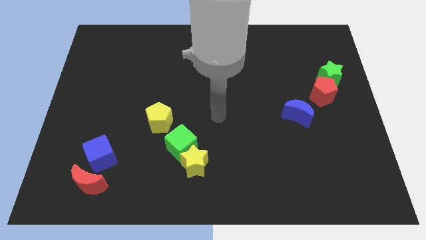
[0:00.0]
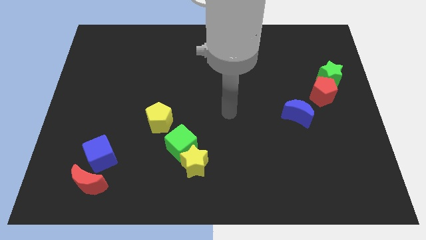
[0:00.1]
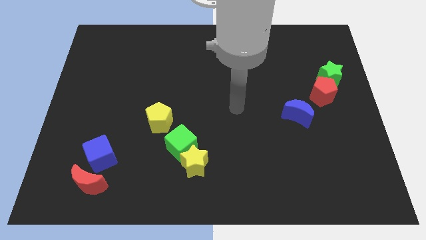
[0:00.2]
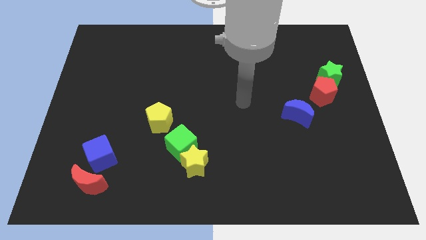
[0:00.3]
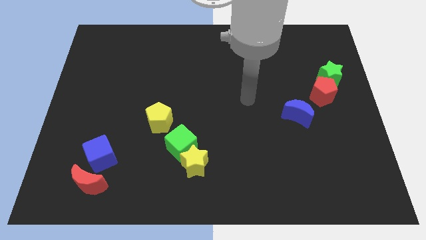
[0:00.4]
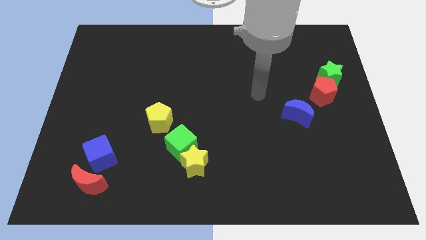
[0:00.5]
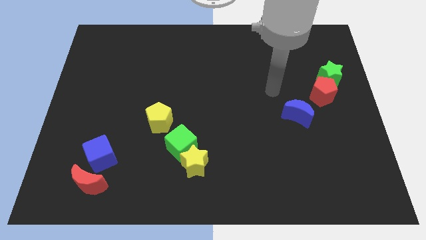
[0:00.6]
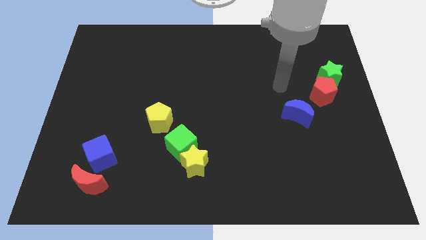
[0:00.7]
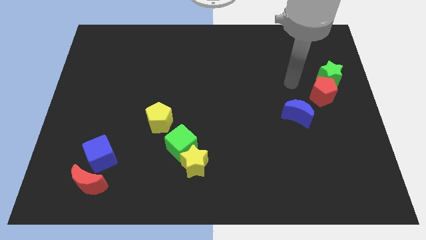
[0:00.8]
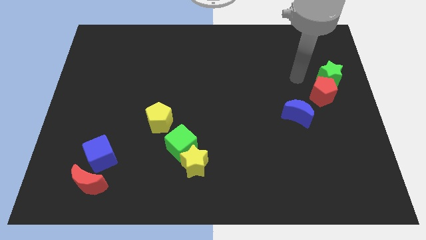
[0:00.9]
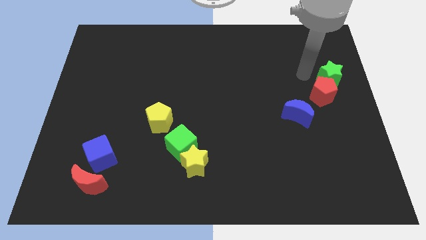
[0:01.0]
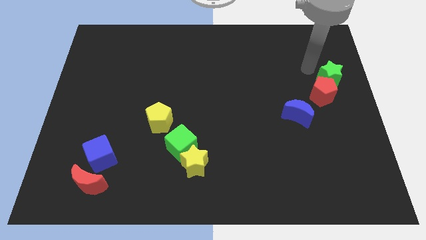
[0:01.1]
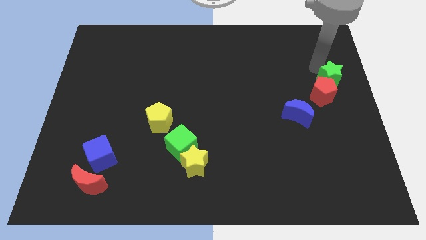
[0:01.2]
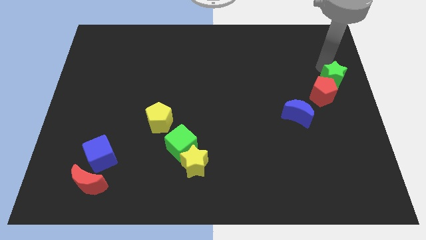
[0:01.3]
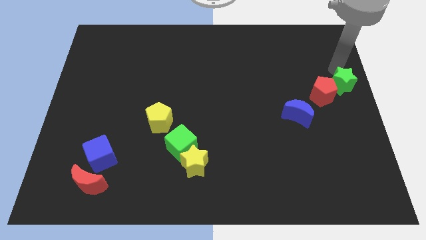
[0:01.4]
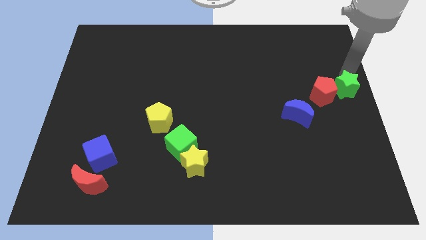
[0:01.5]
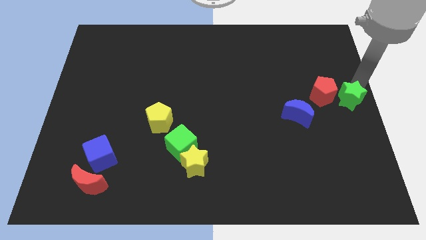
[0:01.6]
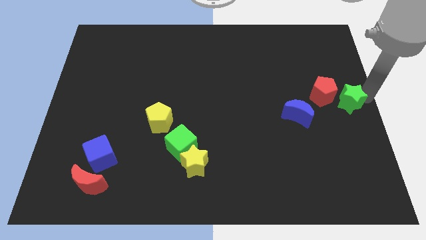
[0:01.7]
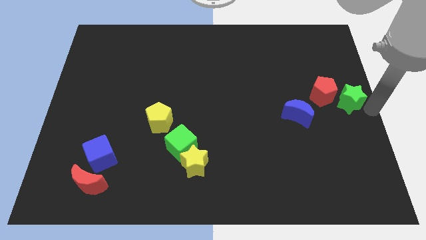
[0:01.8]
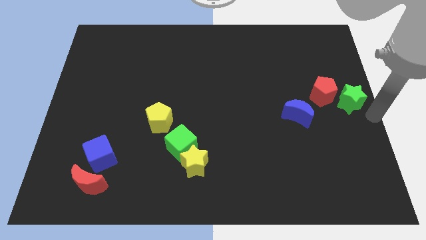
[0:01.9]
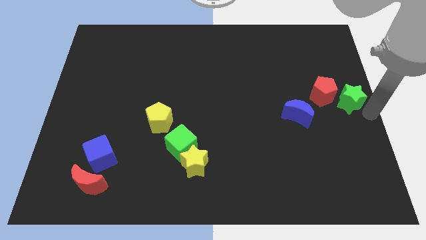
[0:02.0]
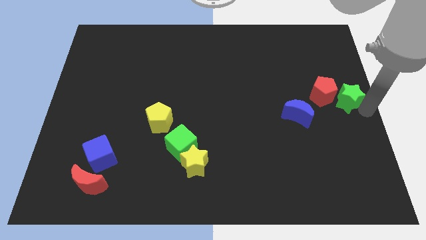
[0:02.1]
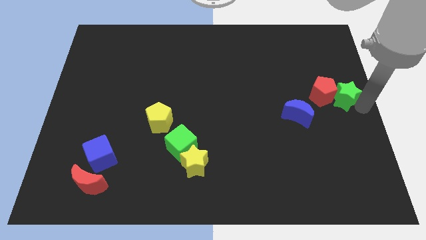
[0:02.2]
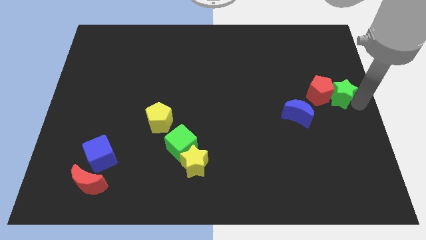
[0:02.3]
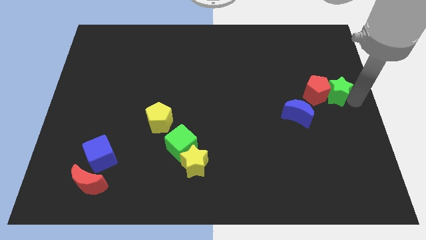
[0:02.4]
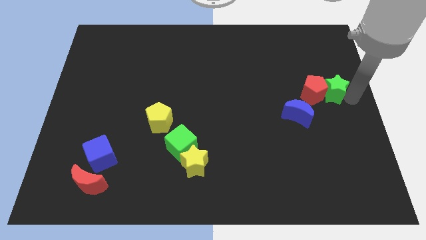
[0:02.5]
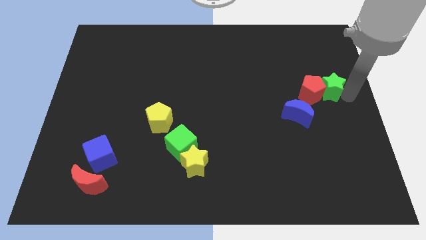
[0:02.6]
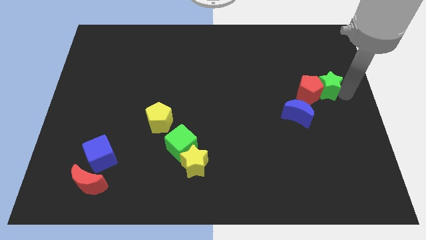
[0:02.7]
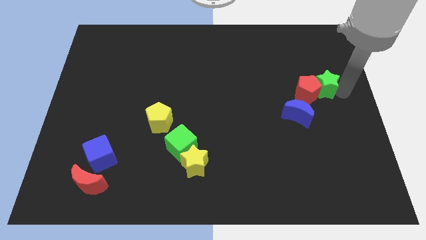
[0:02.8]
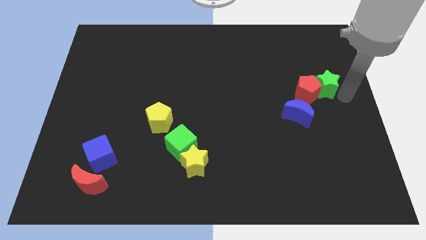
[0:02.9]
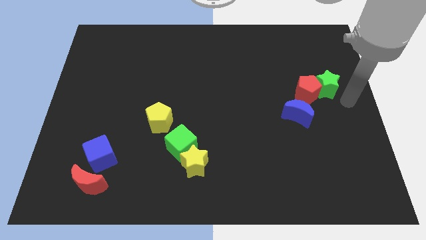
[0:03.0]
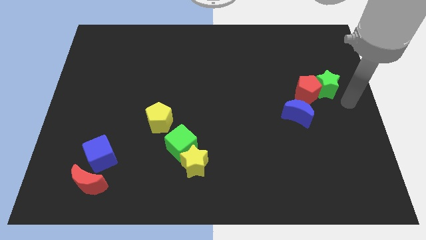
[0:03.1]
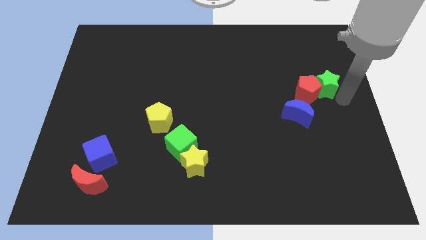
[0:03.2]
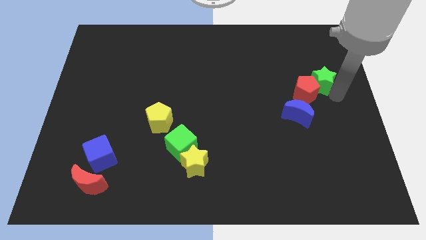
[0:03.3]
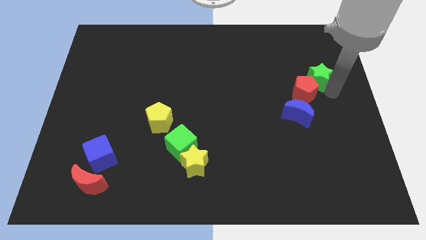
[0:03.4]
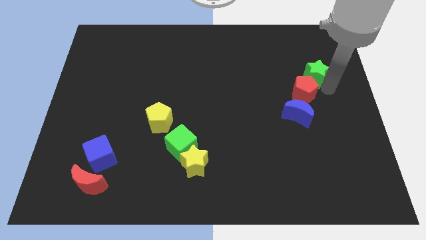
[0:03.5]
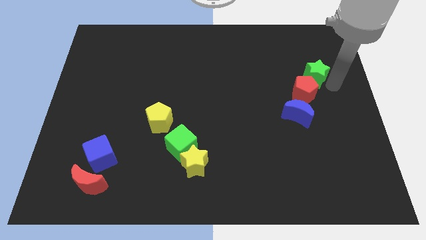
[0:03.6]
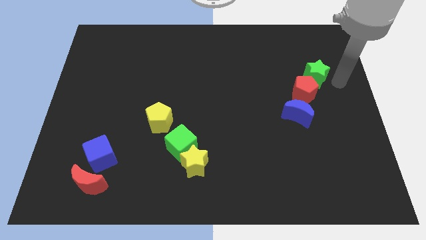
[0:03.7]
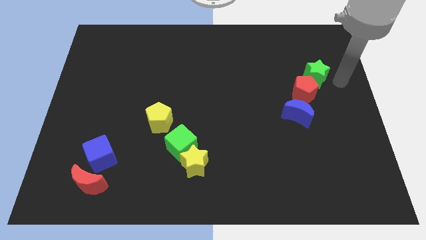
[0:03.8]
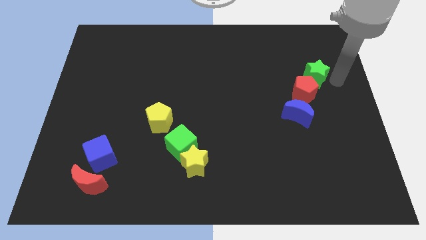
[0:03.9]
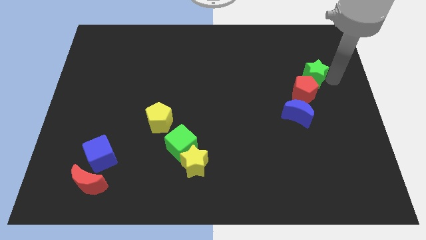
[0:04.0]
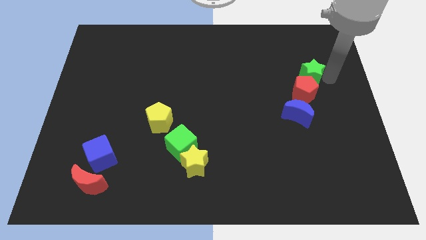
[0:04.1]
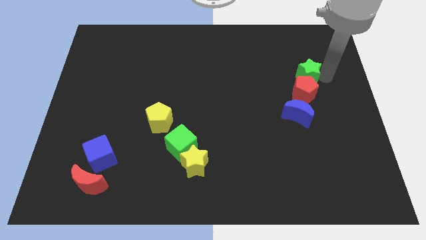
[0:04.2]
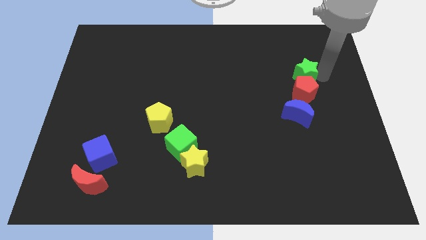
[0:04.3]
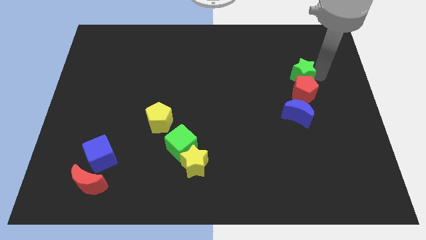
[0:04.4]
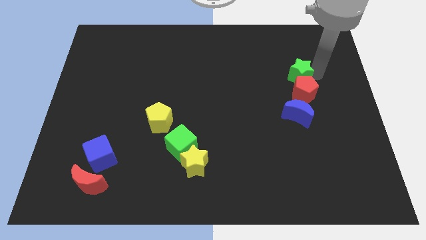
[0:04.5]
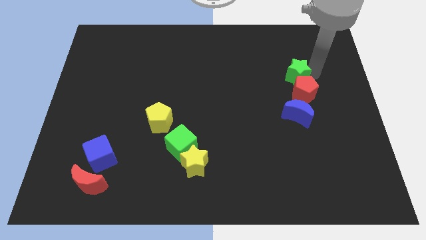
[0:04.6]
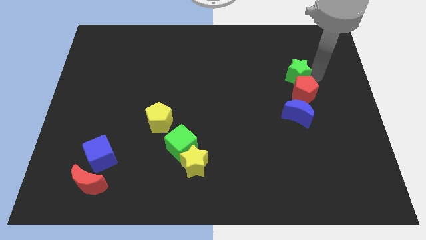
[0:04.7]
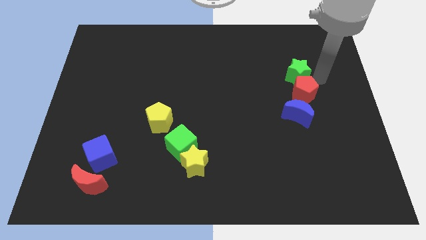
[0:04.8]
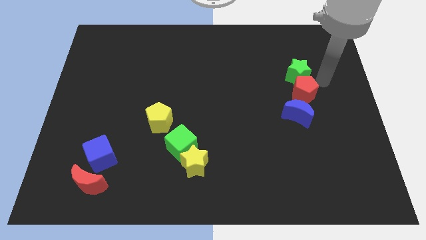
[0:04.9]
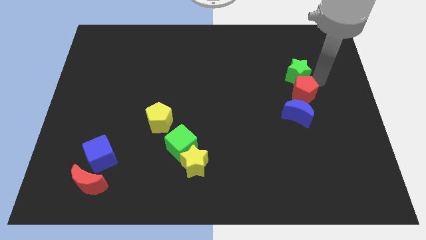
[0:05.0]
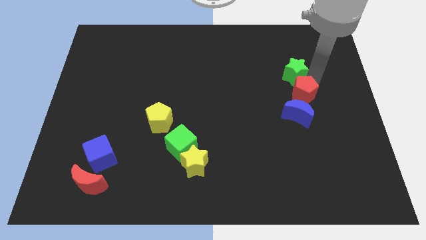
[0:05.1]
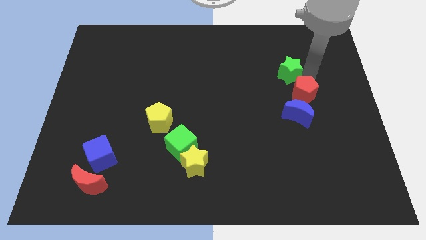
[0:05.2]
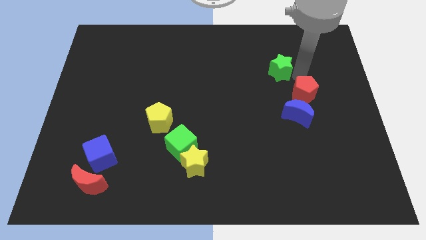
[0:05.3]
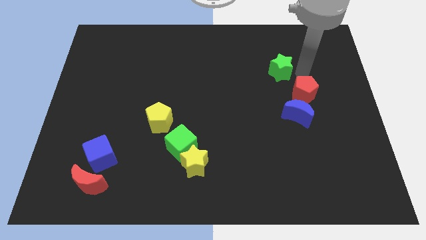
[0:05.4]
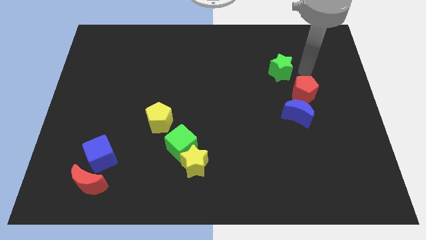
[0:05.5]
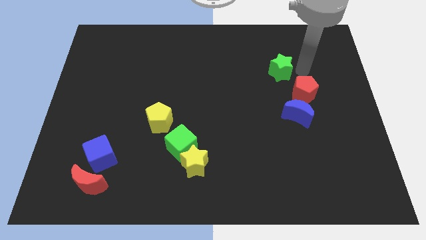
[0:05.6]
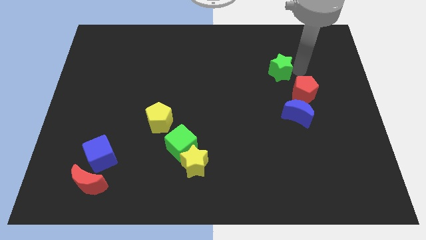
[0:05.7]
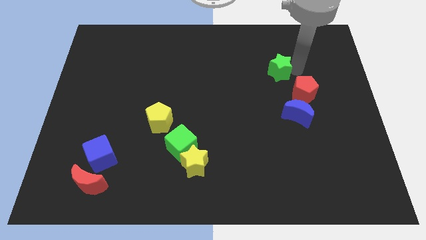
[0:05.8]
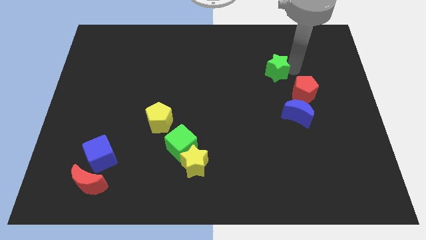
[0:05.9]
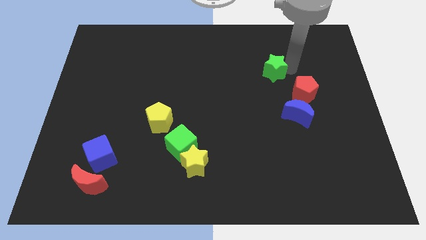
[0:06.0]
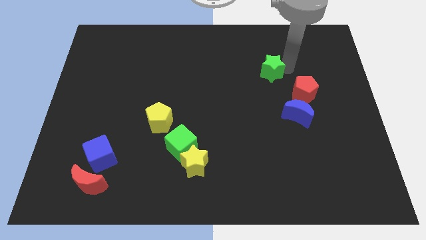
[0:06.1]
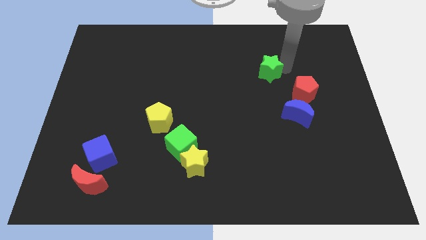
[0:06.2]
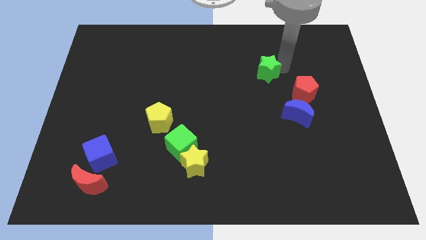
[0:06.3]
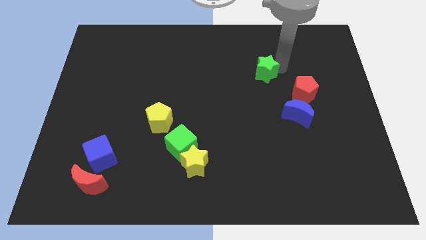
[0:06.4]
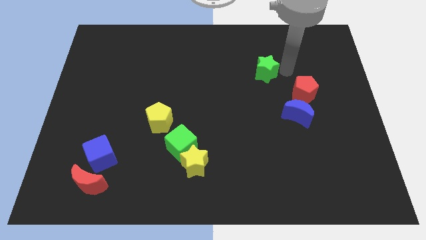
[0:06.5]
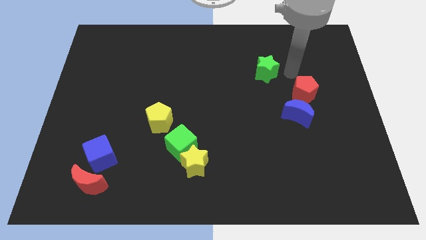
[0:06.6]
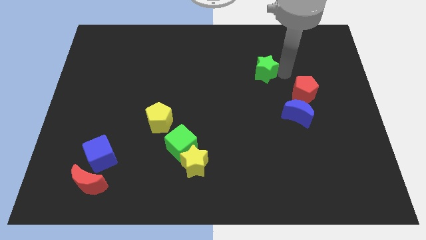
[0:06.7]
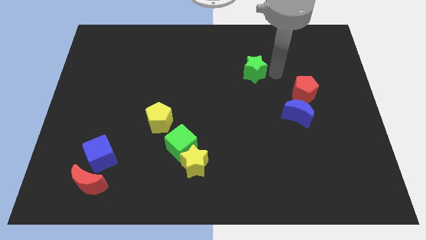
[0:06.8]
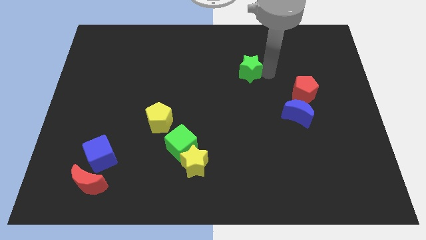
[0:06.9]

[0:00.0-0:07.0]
push the green star to the left

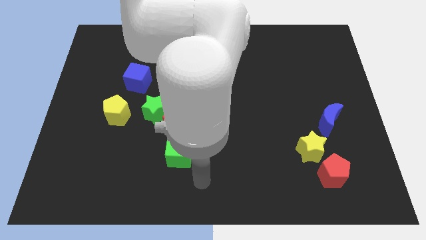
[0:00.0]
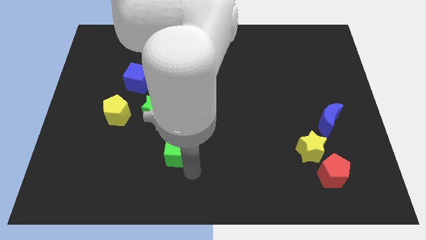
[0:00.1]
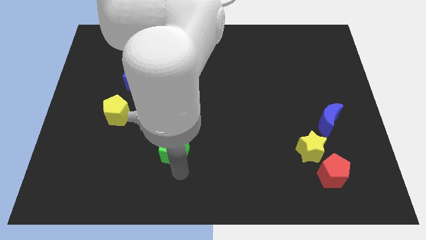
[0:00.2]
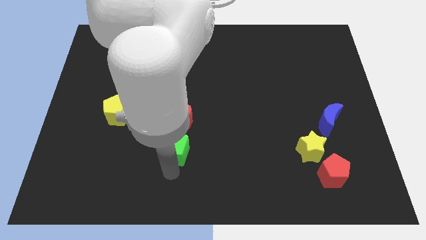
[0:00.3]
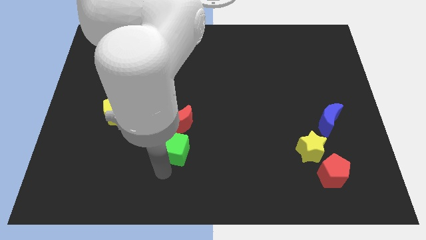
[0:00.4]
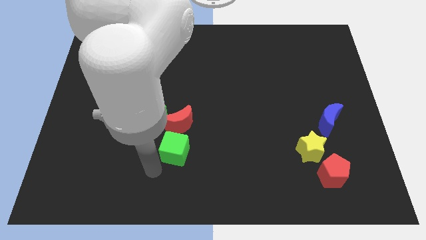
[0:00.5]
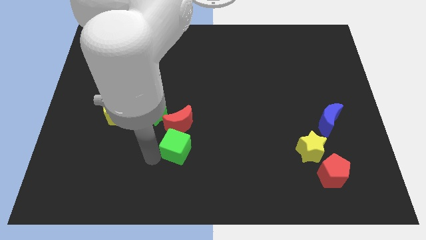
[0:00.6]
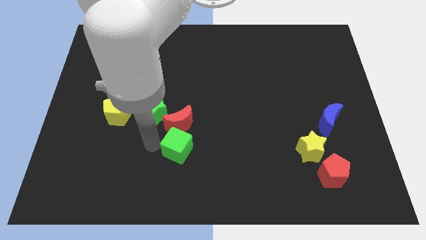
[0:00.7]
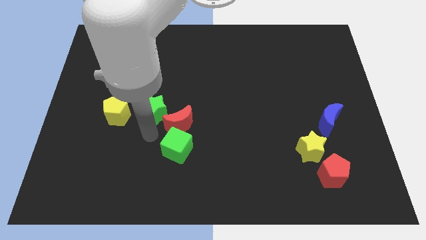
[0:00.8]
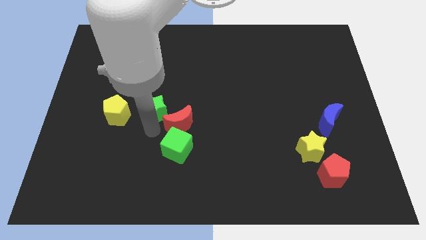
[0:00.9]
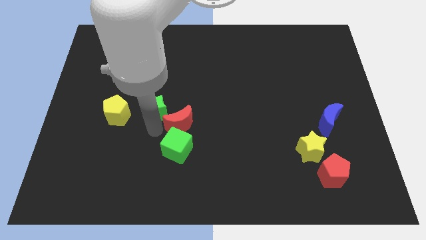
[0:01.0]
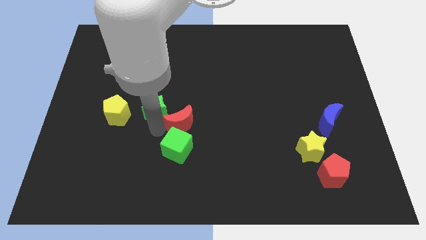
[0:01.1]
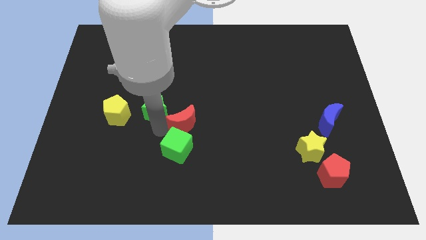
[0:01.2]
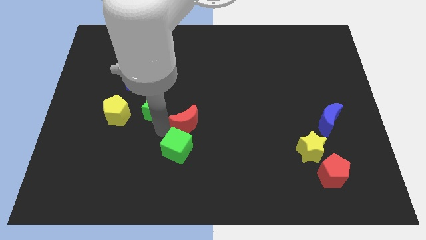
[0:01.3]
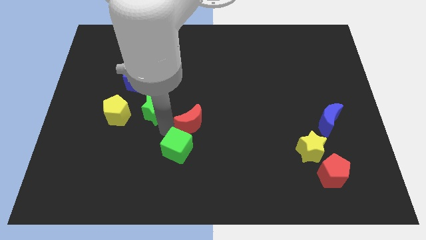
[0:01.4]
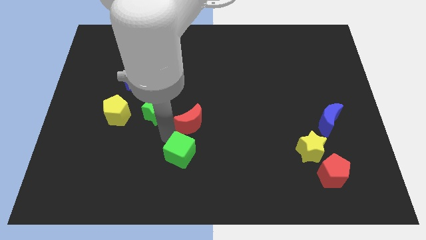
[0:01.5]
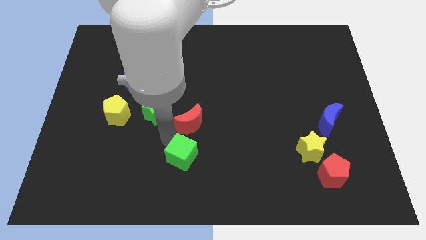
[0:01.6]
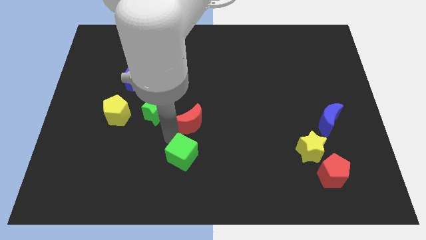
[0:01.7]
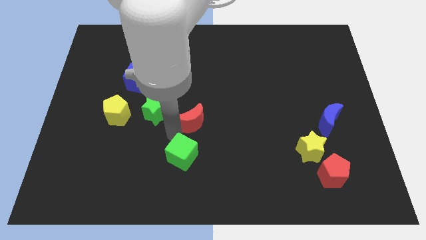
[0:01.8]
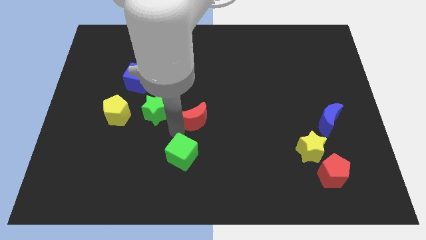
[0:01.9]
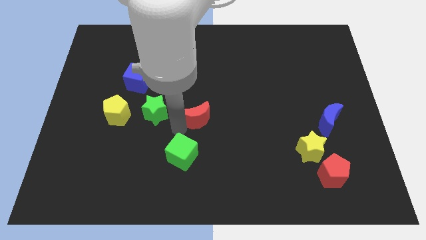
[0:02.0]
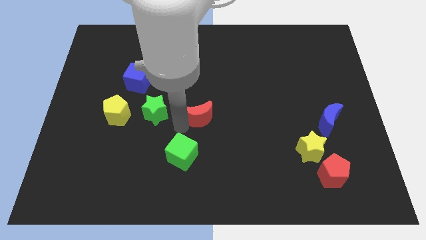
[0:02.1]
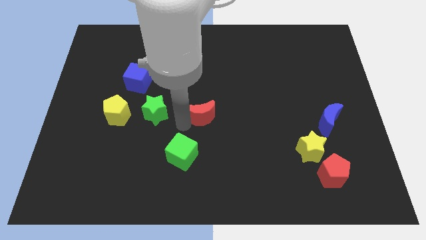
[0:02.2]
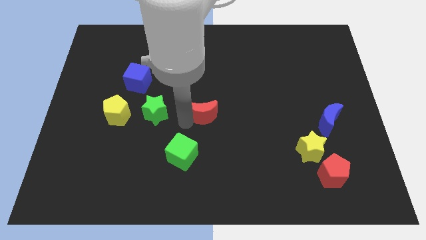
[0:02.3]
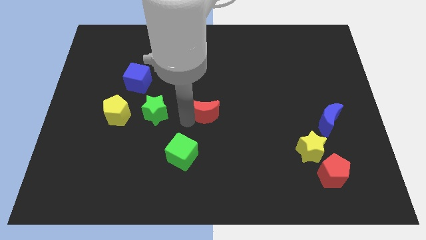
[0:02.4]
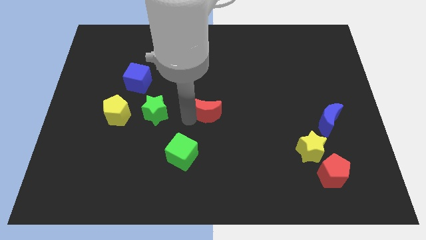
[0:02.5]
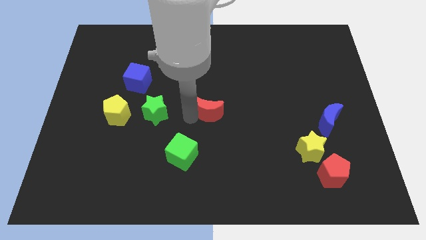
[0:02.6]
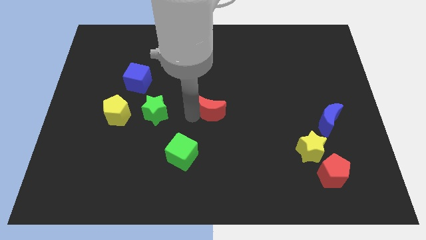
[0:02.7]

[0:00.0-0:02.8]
push the red moon diagonally up and to the right somewhat
